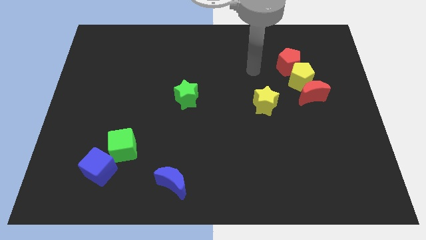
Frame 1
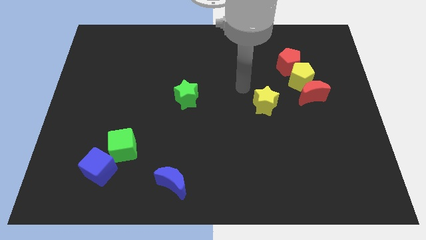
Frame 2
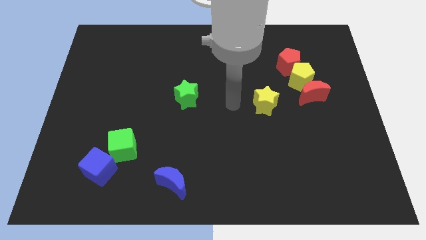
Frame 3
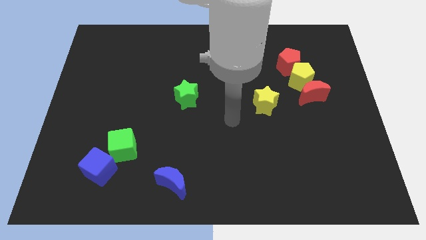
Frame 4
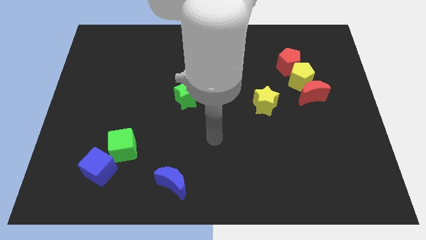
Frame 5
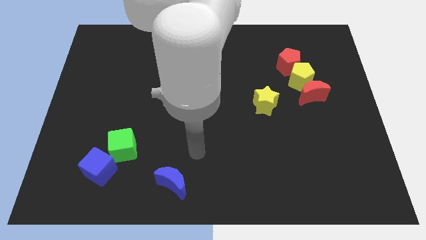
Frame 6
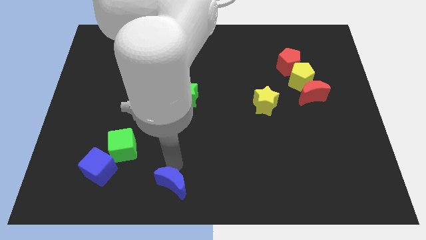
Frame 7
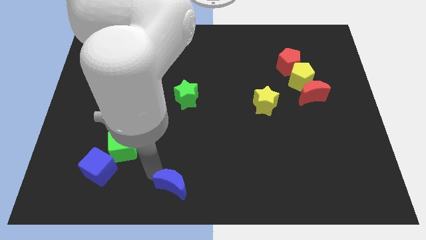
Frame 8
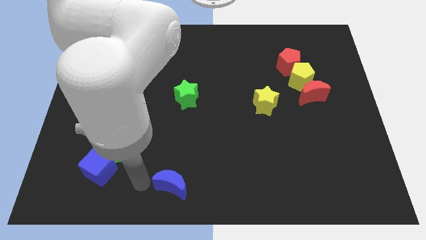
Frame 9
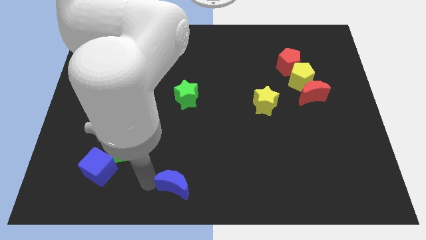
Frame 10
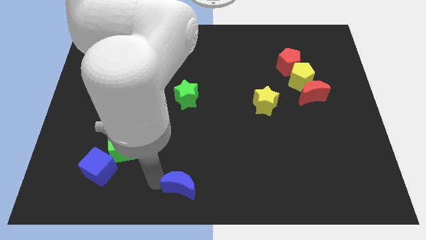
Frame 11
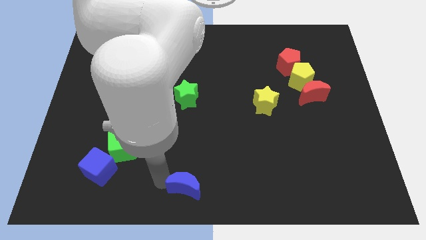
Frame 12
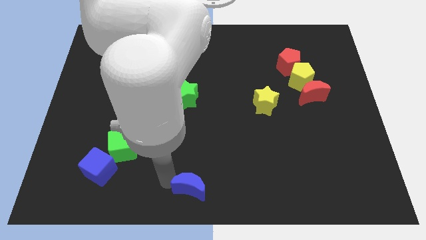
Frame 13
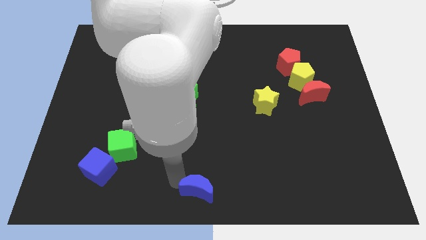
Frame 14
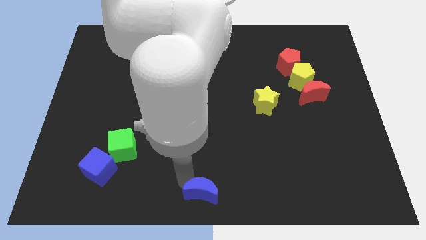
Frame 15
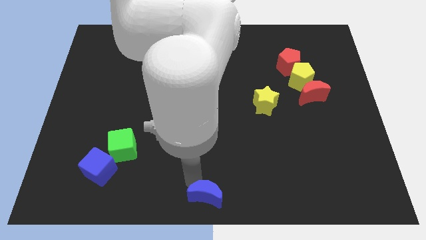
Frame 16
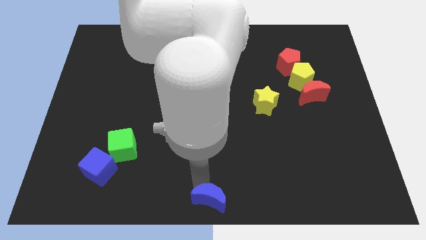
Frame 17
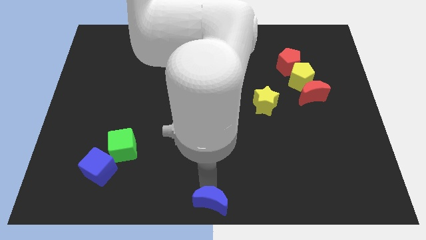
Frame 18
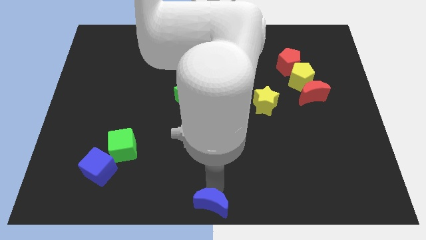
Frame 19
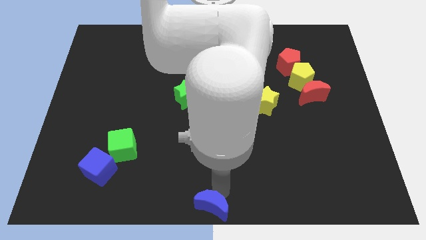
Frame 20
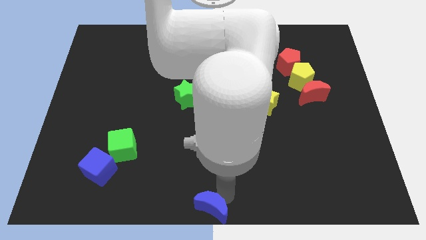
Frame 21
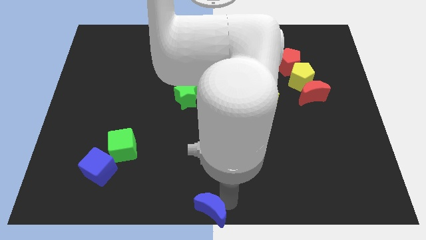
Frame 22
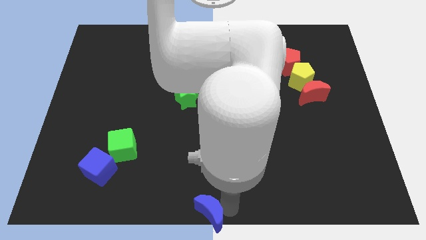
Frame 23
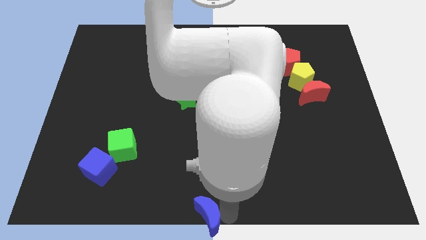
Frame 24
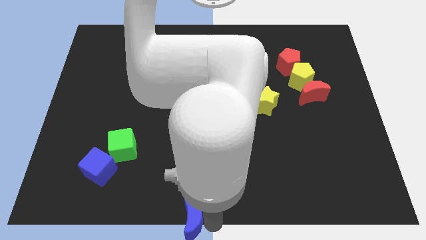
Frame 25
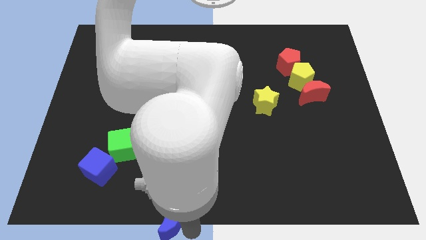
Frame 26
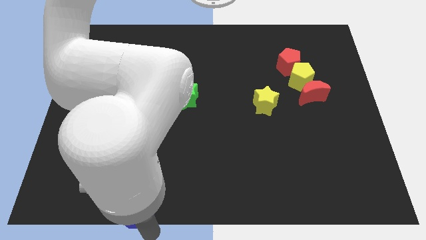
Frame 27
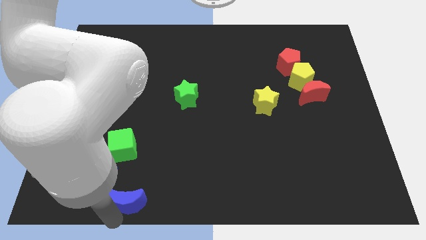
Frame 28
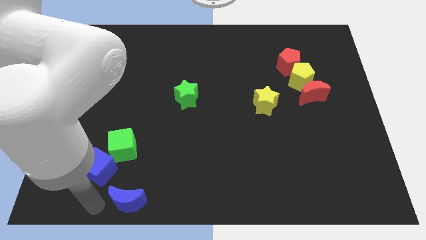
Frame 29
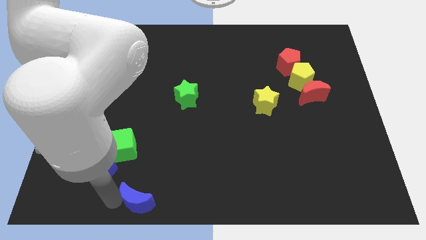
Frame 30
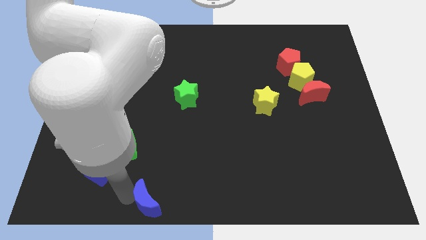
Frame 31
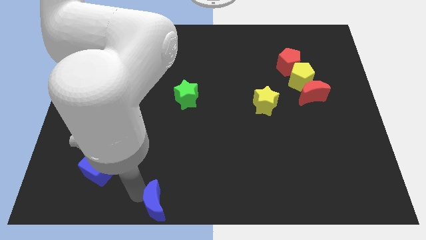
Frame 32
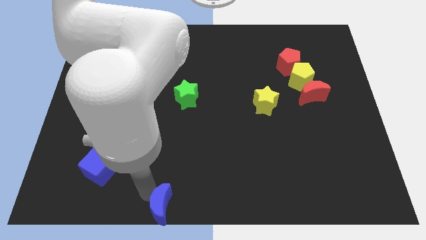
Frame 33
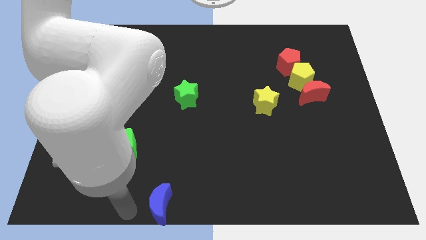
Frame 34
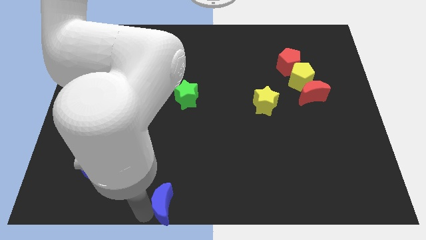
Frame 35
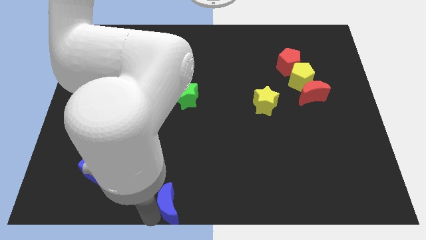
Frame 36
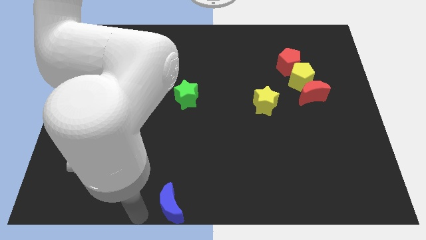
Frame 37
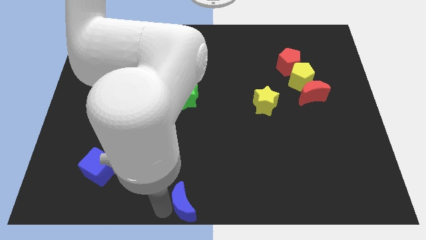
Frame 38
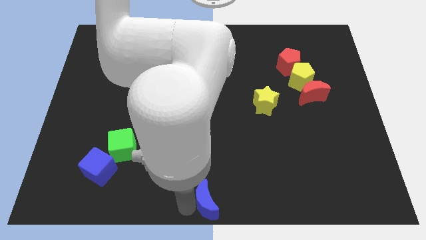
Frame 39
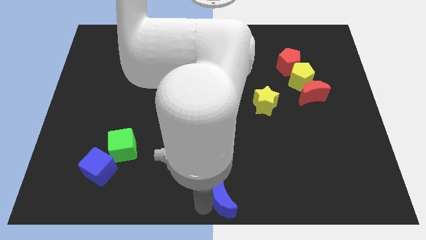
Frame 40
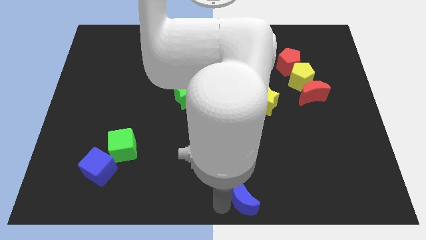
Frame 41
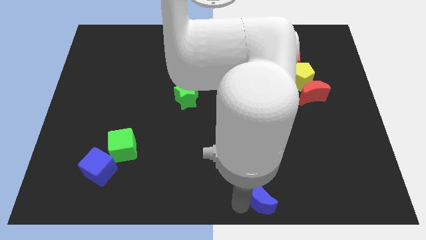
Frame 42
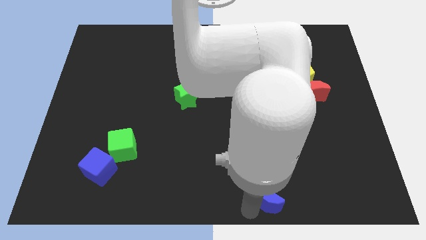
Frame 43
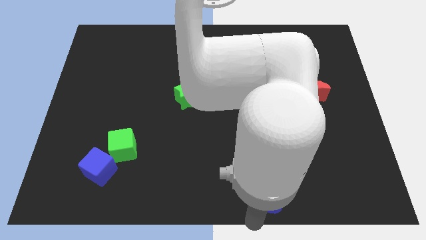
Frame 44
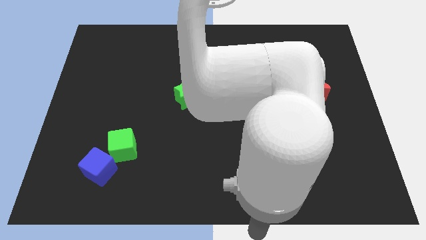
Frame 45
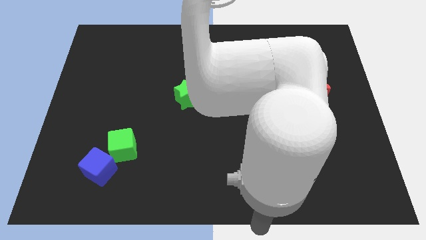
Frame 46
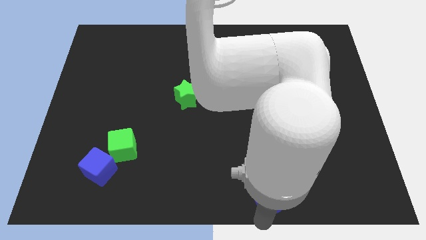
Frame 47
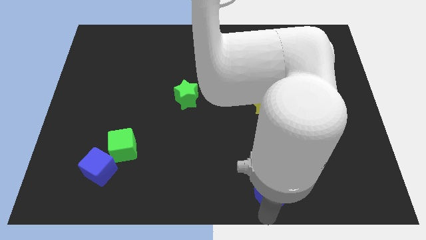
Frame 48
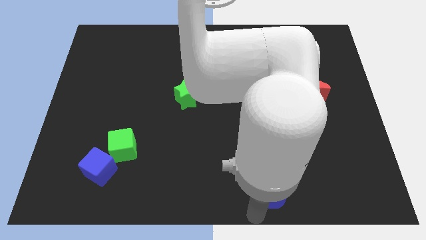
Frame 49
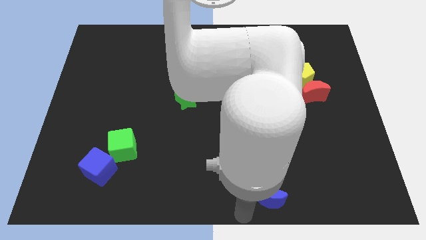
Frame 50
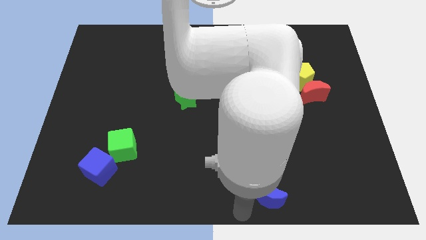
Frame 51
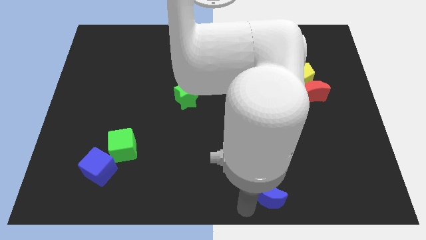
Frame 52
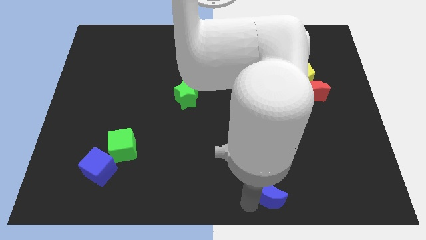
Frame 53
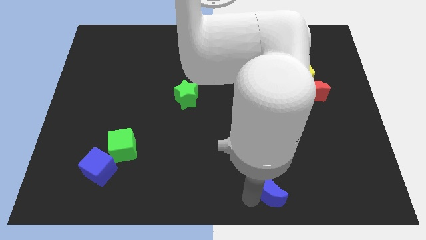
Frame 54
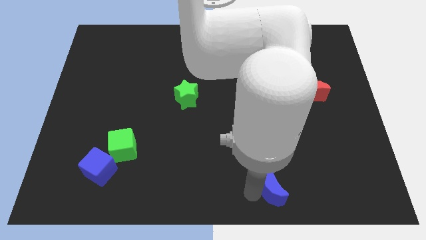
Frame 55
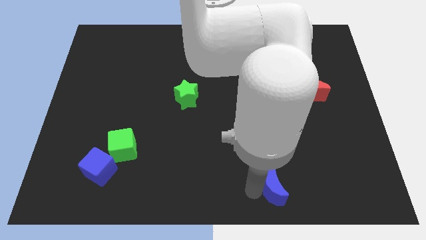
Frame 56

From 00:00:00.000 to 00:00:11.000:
move the blue moon right

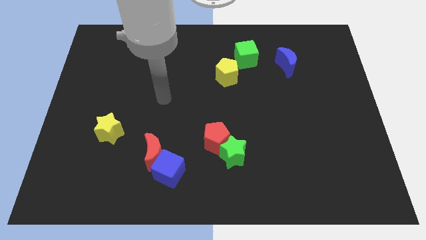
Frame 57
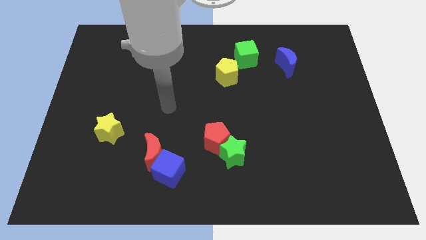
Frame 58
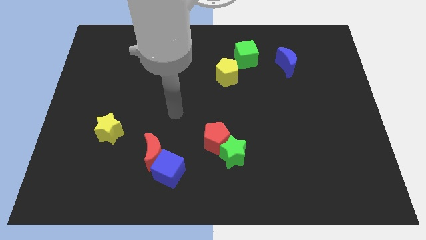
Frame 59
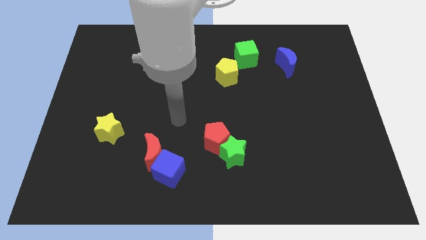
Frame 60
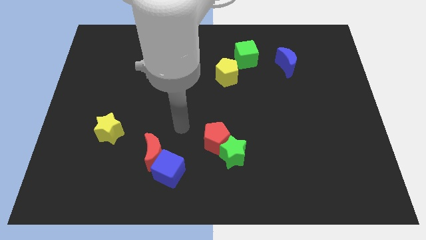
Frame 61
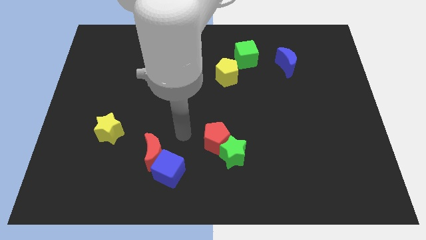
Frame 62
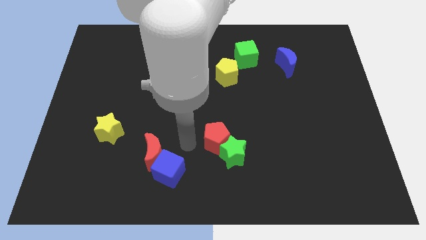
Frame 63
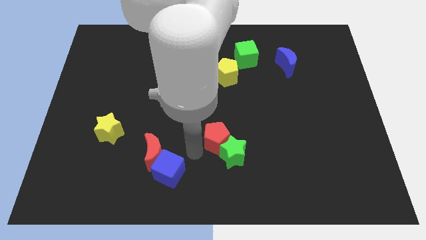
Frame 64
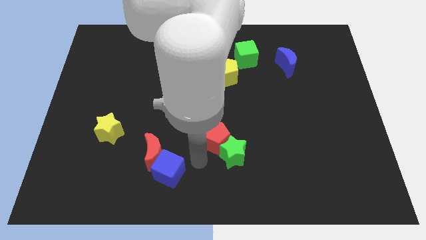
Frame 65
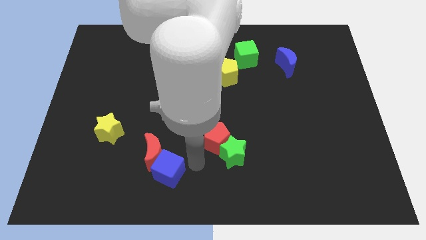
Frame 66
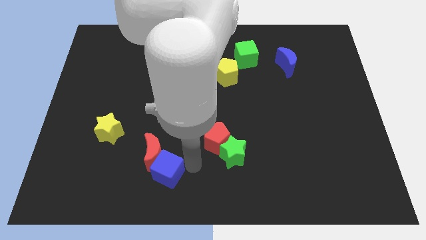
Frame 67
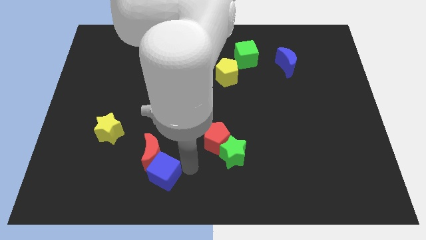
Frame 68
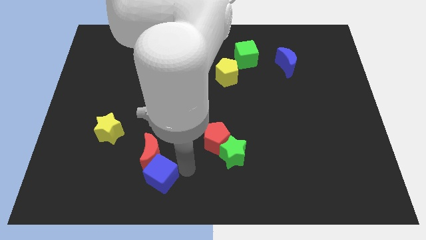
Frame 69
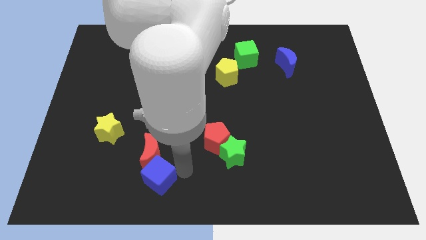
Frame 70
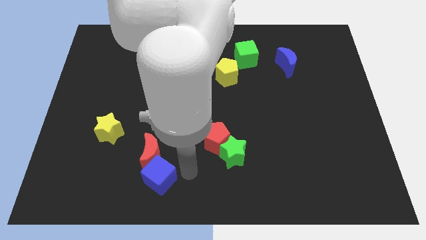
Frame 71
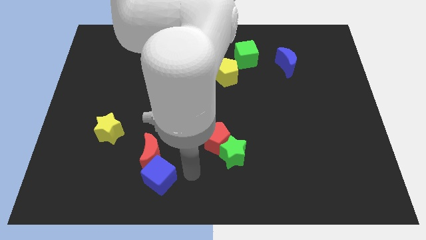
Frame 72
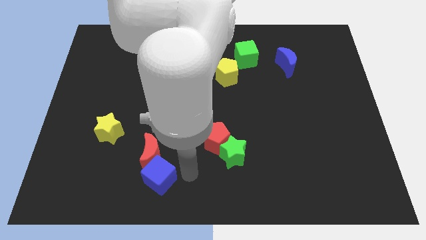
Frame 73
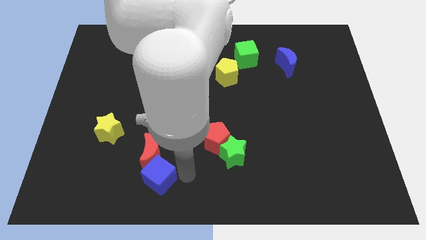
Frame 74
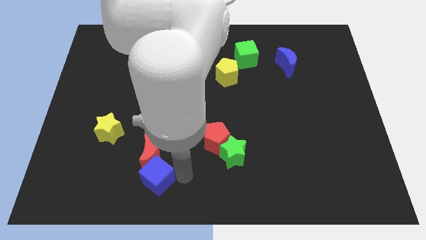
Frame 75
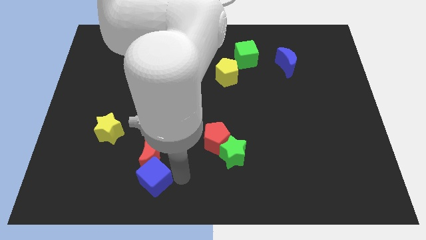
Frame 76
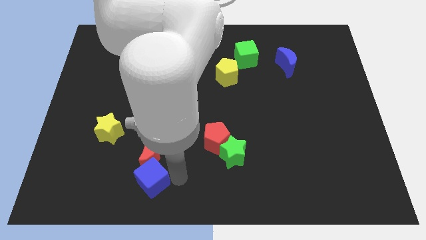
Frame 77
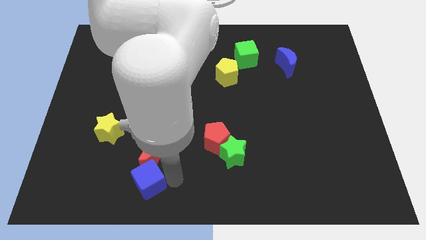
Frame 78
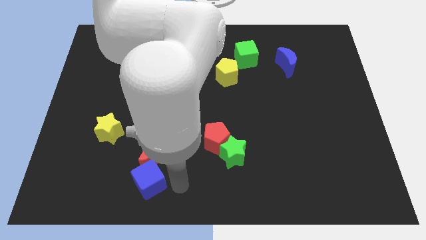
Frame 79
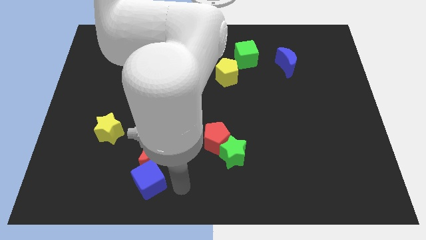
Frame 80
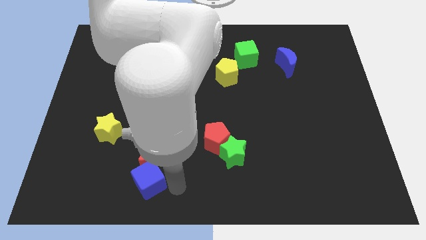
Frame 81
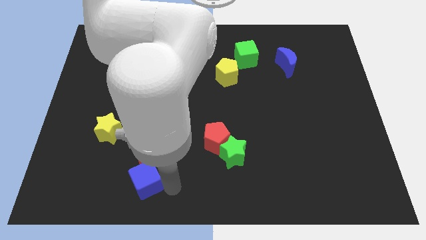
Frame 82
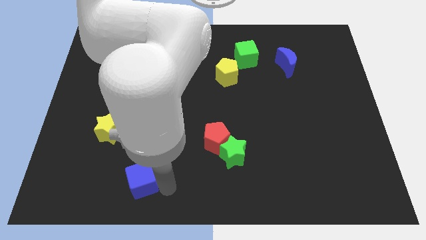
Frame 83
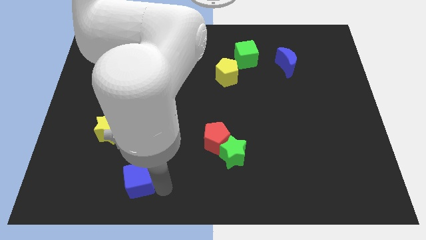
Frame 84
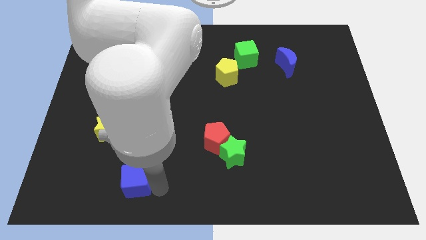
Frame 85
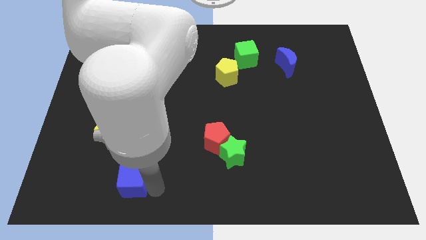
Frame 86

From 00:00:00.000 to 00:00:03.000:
move the blue cube left slightly
